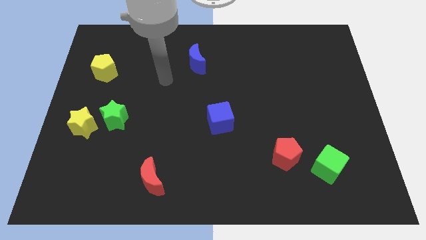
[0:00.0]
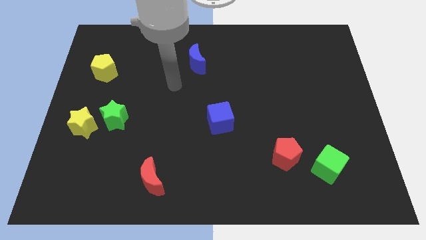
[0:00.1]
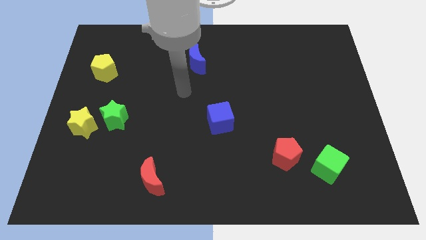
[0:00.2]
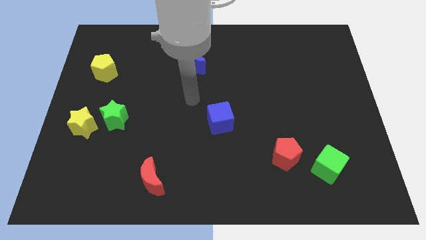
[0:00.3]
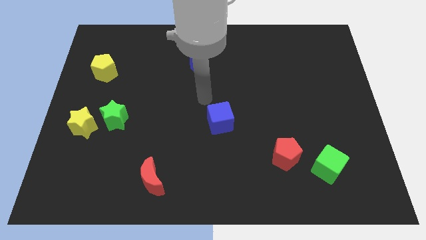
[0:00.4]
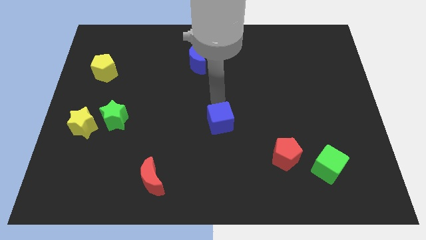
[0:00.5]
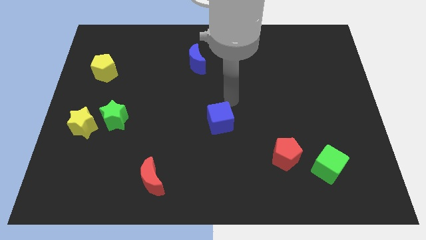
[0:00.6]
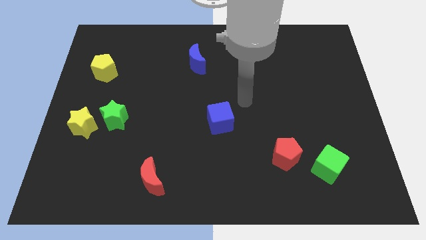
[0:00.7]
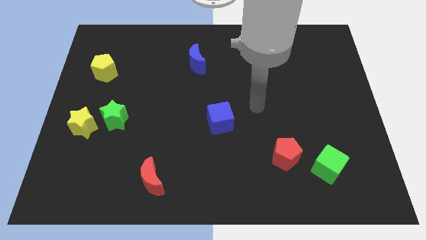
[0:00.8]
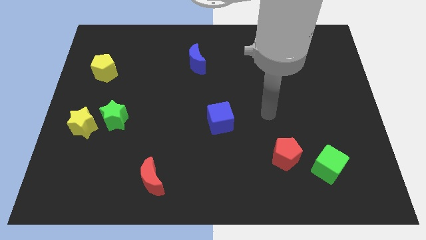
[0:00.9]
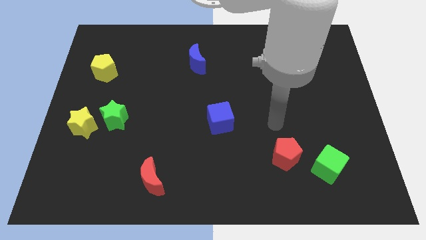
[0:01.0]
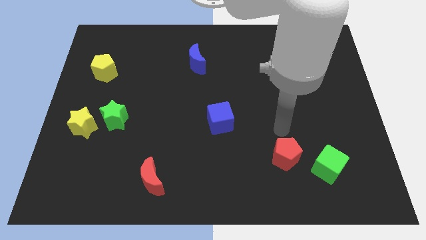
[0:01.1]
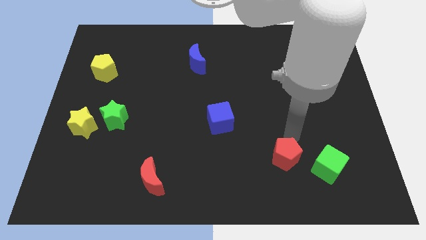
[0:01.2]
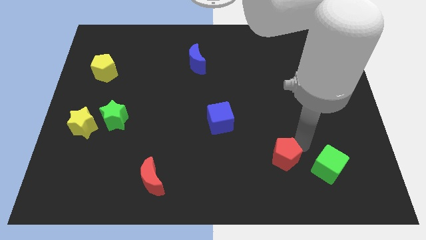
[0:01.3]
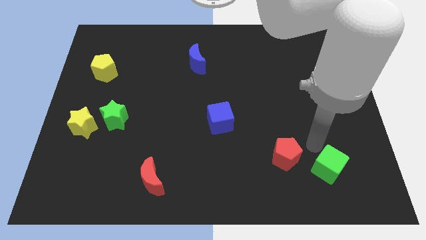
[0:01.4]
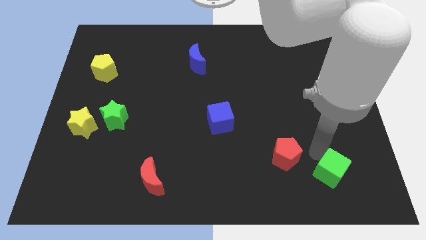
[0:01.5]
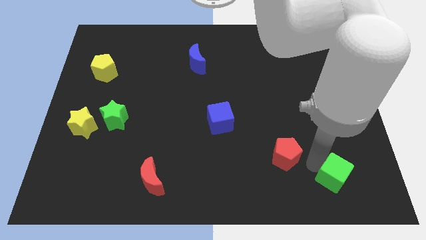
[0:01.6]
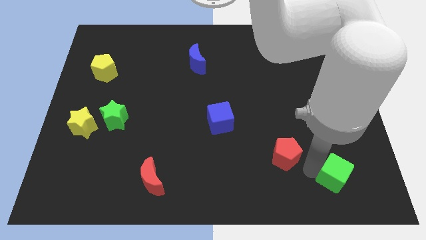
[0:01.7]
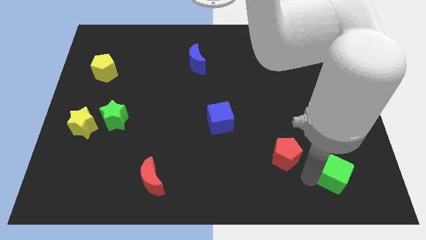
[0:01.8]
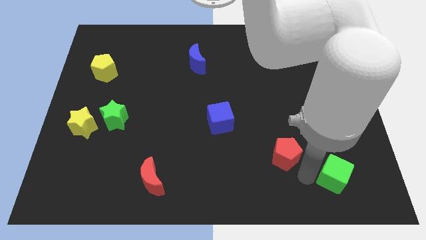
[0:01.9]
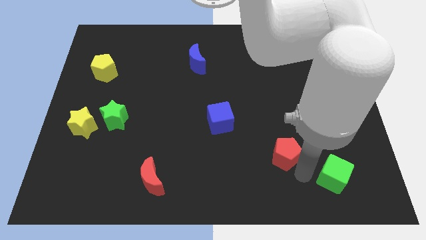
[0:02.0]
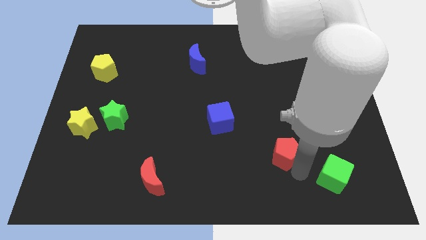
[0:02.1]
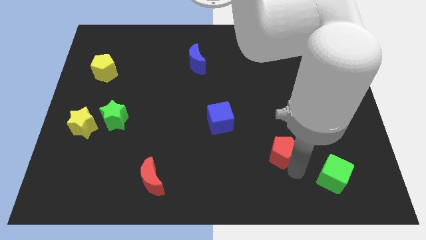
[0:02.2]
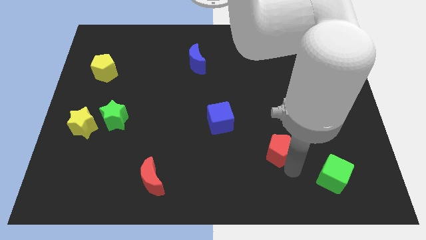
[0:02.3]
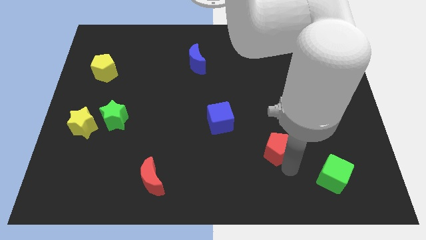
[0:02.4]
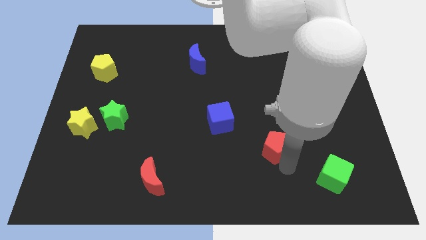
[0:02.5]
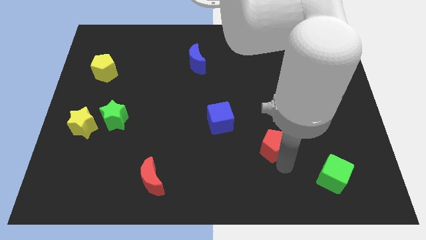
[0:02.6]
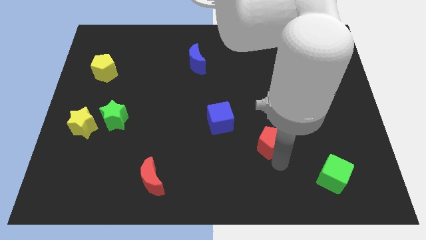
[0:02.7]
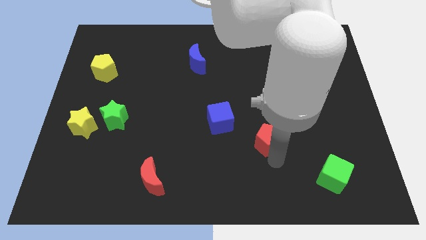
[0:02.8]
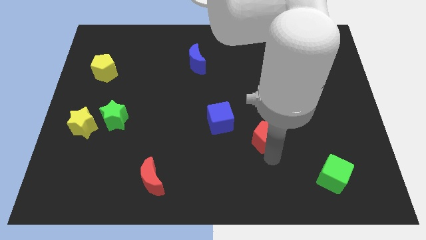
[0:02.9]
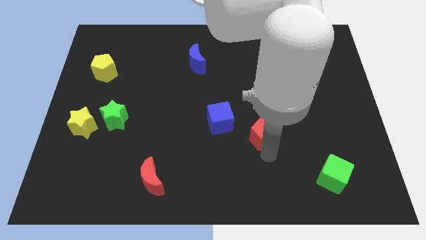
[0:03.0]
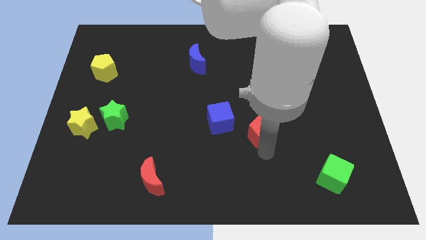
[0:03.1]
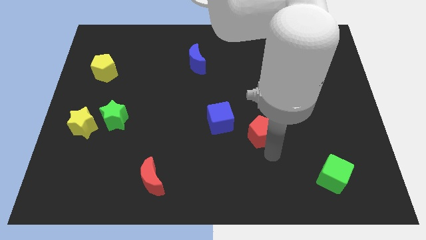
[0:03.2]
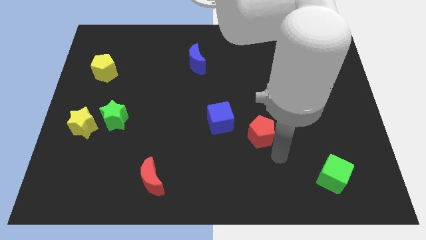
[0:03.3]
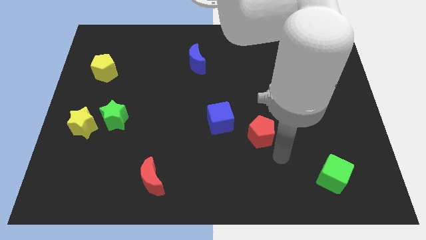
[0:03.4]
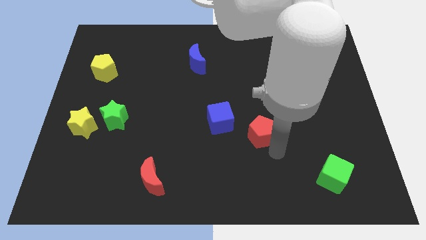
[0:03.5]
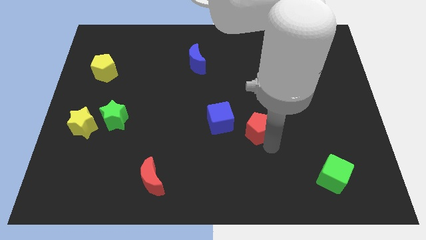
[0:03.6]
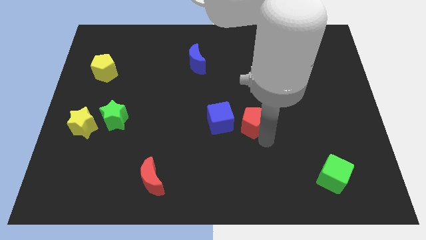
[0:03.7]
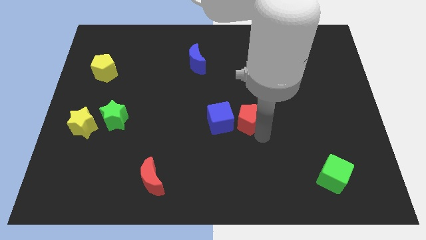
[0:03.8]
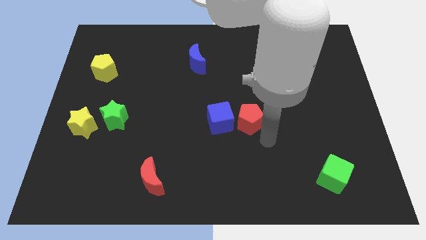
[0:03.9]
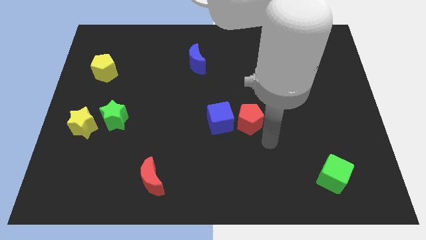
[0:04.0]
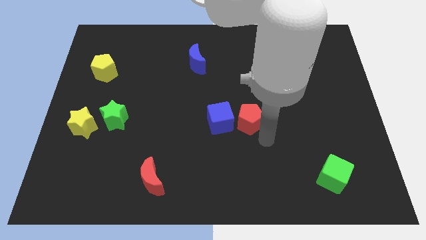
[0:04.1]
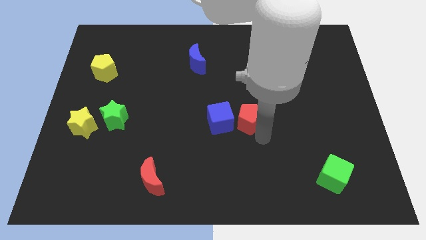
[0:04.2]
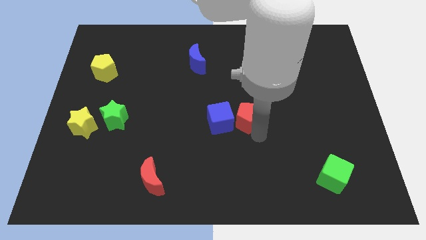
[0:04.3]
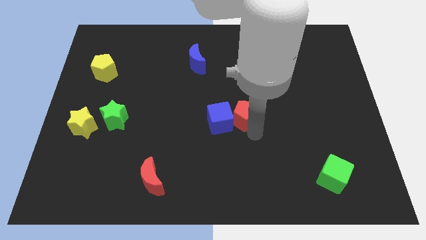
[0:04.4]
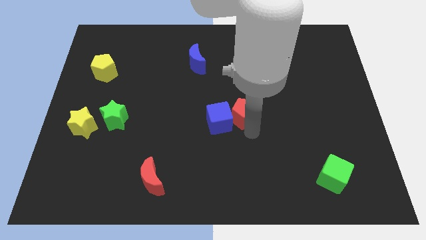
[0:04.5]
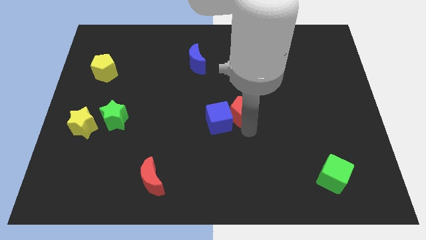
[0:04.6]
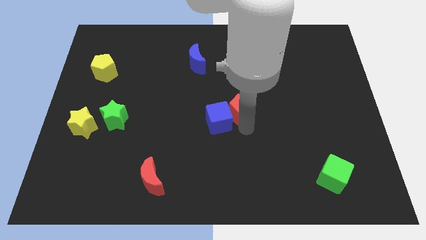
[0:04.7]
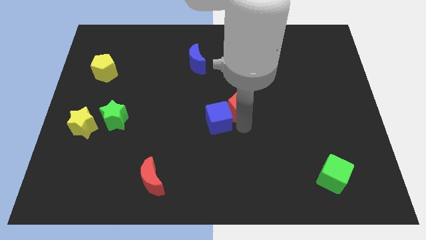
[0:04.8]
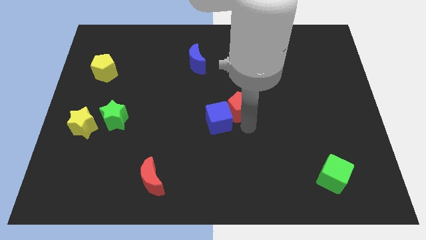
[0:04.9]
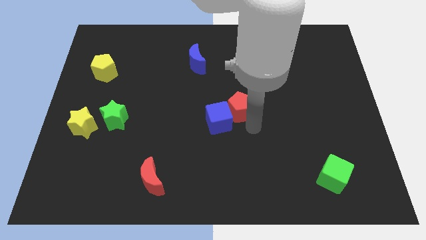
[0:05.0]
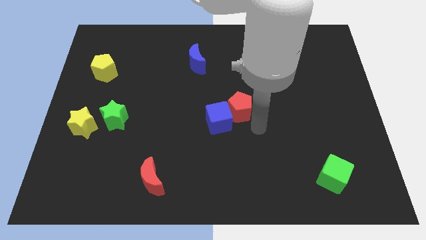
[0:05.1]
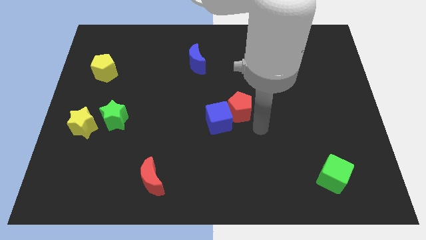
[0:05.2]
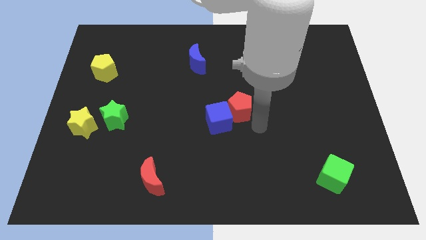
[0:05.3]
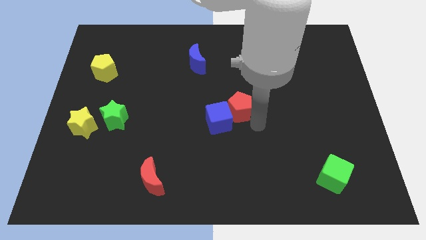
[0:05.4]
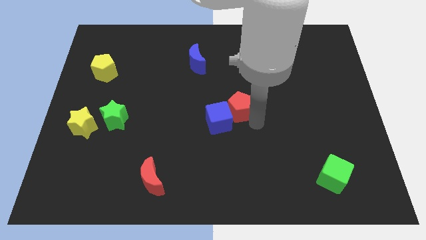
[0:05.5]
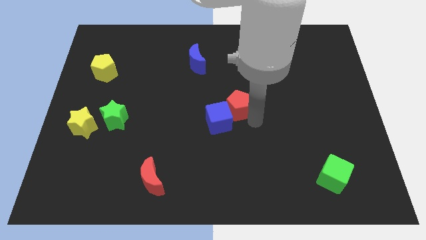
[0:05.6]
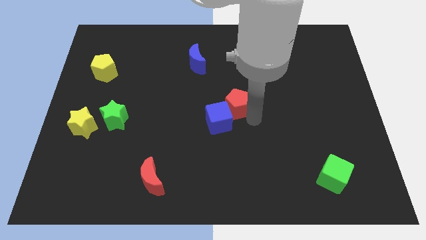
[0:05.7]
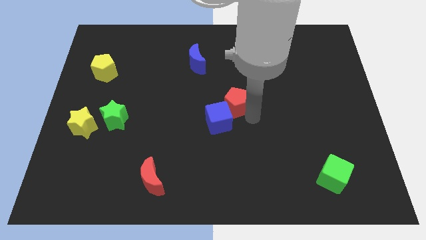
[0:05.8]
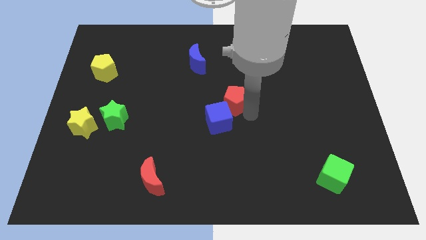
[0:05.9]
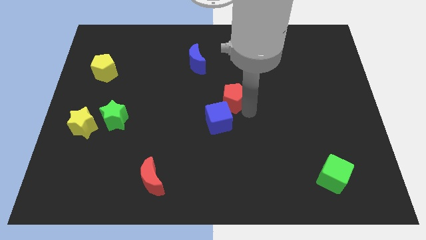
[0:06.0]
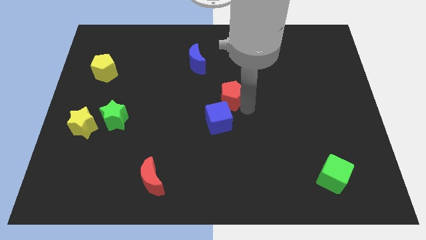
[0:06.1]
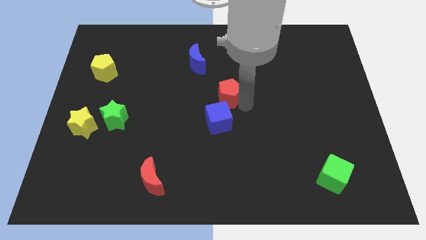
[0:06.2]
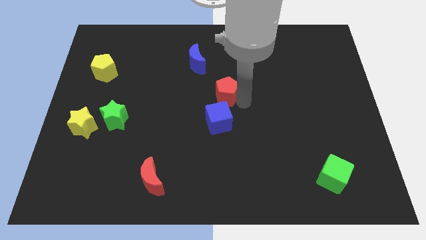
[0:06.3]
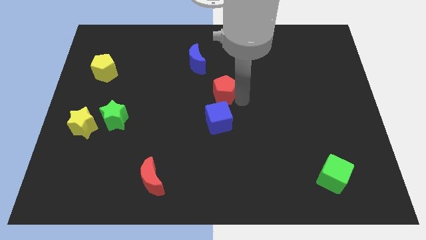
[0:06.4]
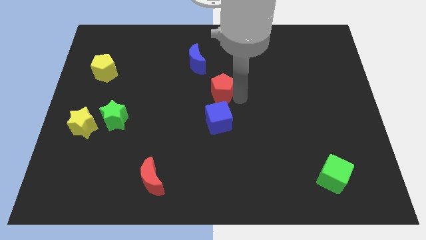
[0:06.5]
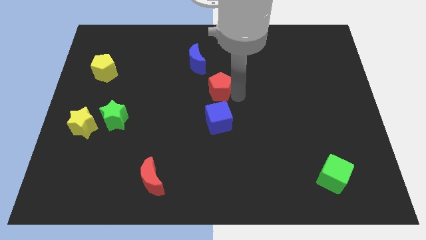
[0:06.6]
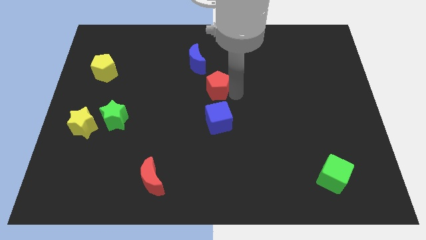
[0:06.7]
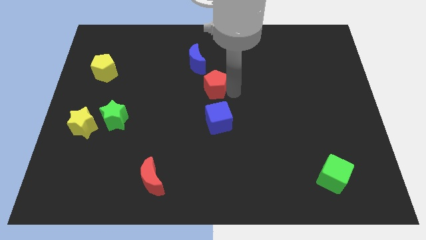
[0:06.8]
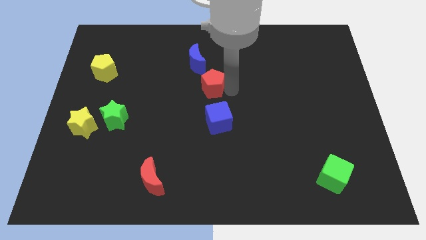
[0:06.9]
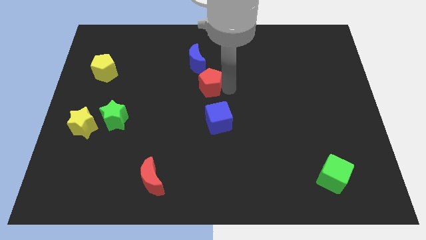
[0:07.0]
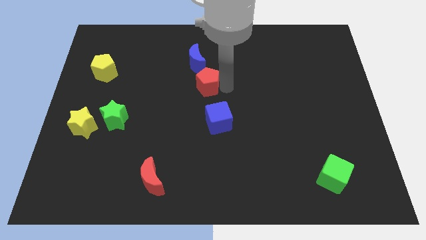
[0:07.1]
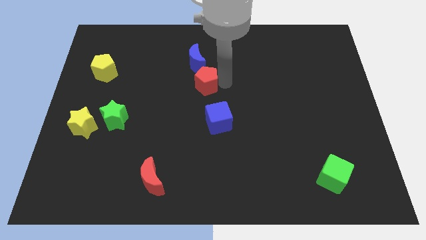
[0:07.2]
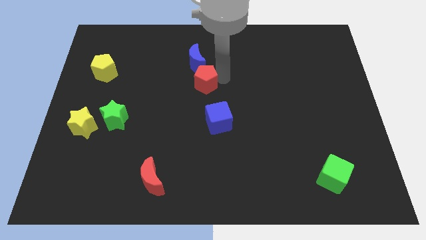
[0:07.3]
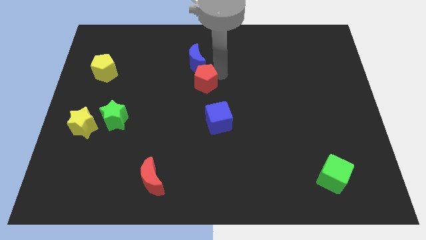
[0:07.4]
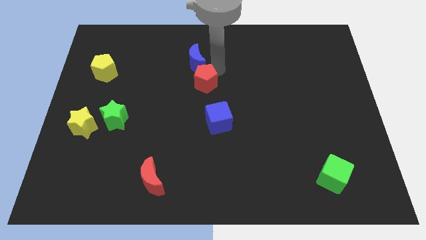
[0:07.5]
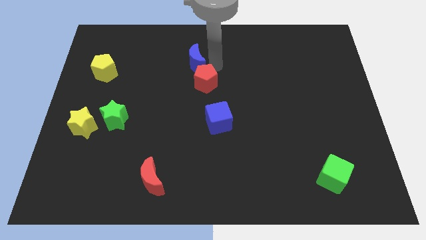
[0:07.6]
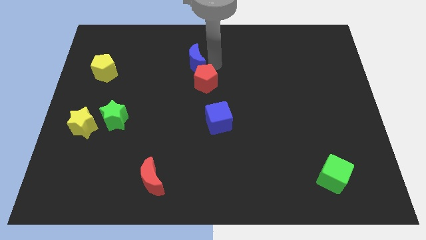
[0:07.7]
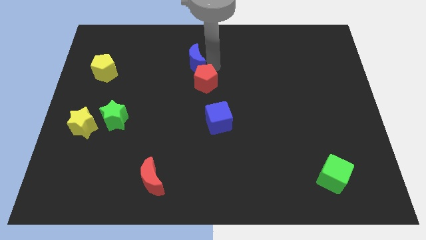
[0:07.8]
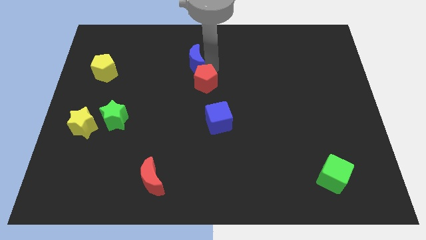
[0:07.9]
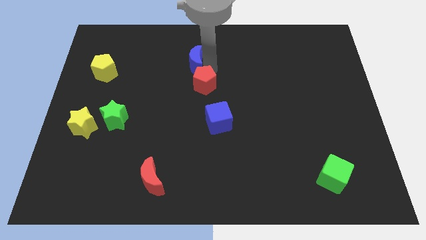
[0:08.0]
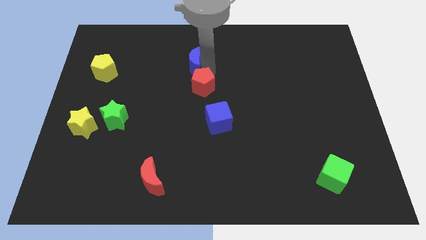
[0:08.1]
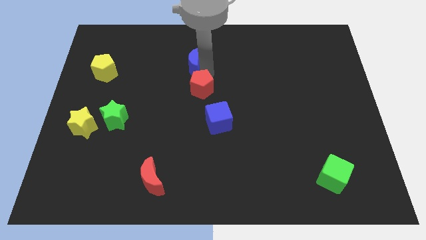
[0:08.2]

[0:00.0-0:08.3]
move the red pentagon to the top left side of the blue cube
